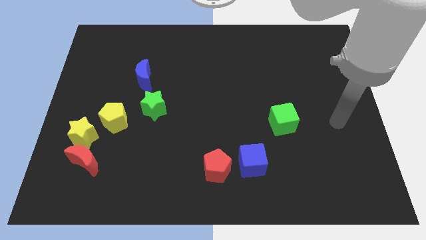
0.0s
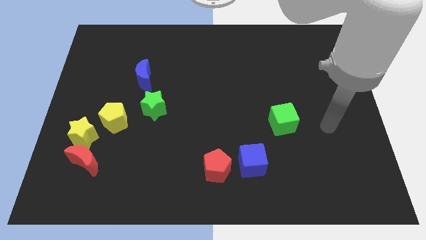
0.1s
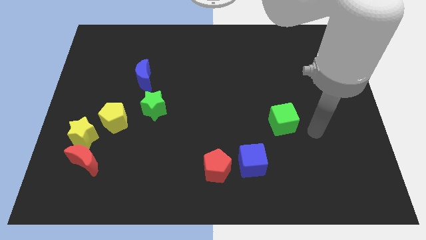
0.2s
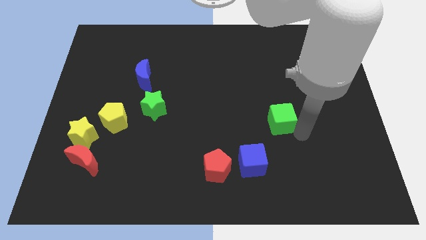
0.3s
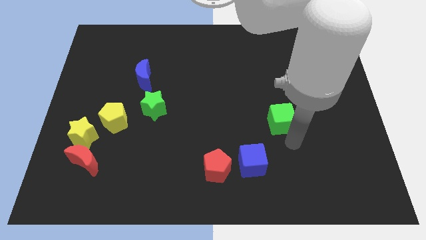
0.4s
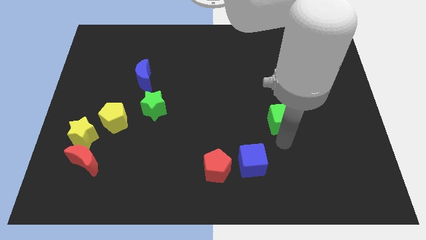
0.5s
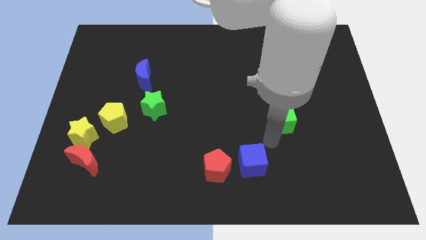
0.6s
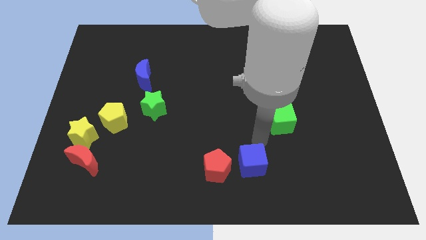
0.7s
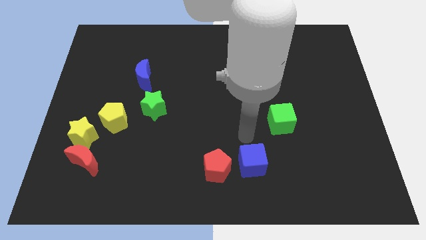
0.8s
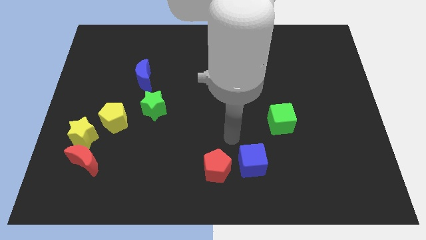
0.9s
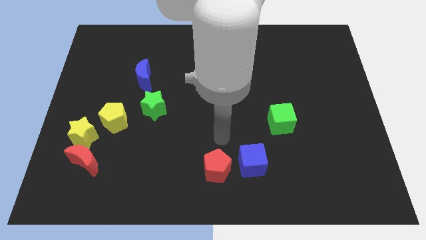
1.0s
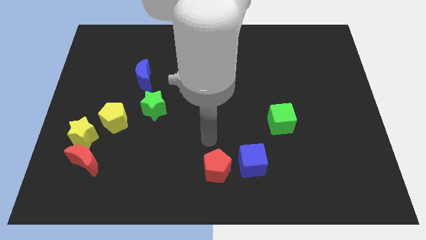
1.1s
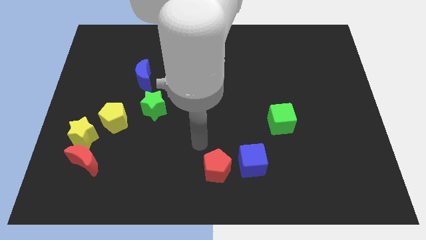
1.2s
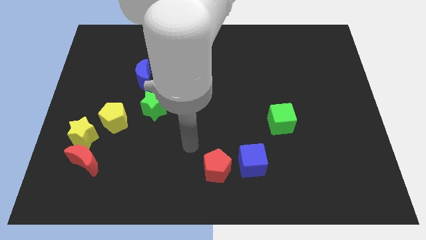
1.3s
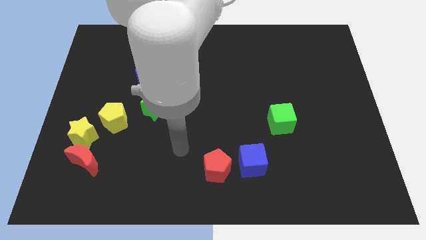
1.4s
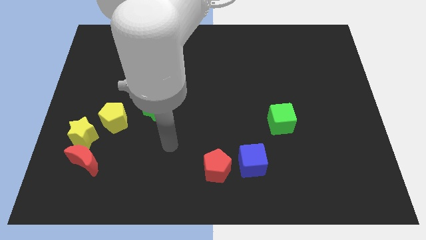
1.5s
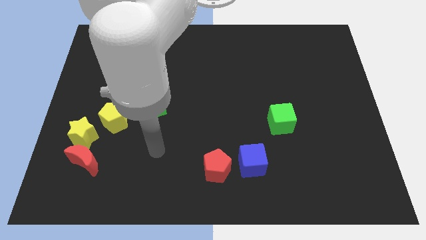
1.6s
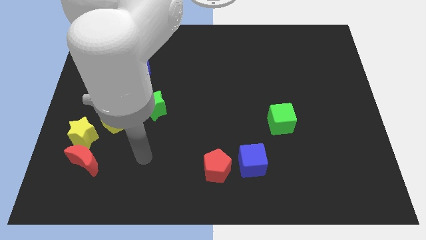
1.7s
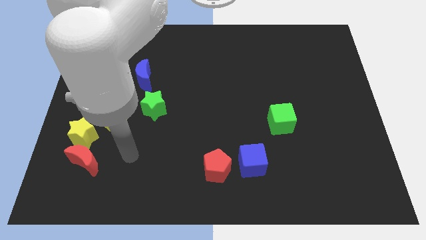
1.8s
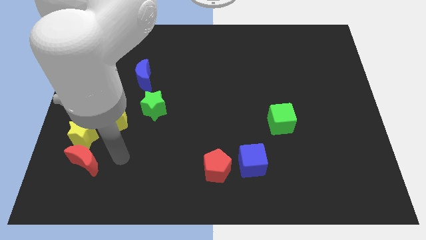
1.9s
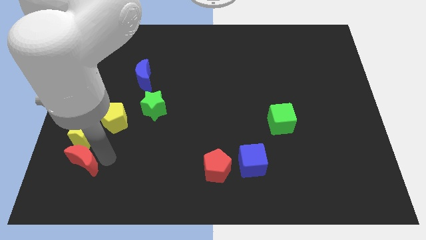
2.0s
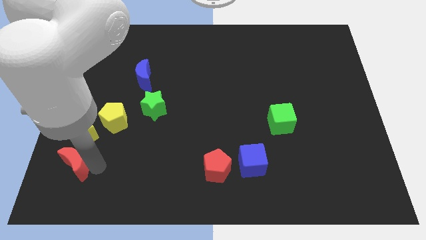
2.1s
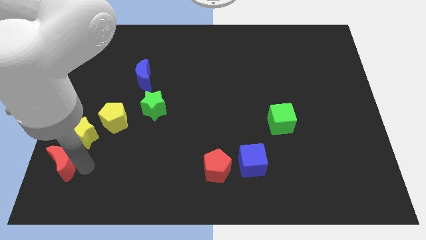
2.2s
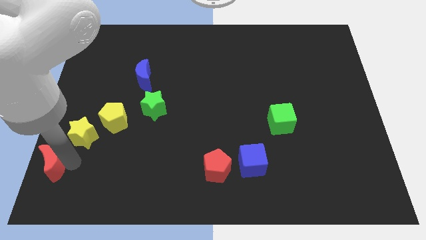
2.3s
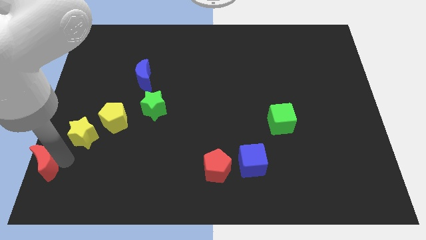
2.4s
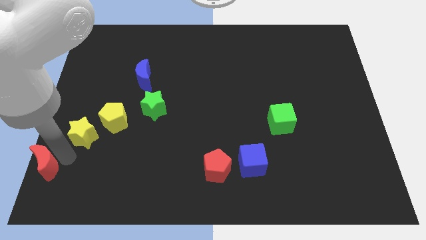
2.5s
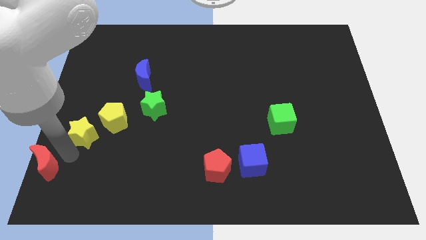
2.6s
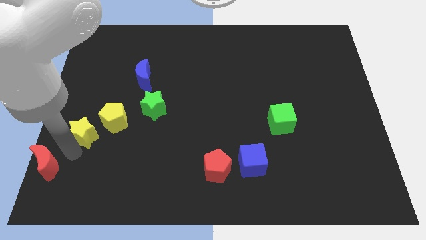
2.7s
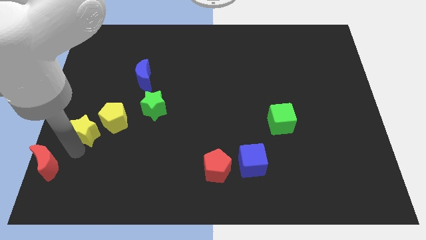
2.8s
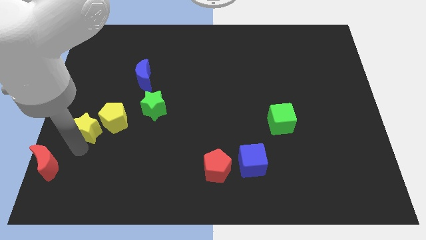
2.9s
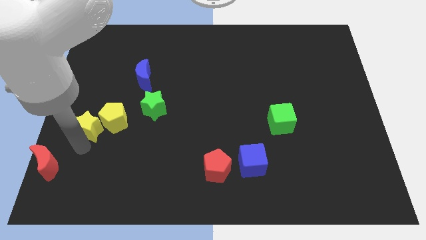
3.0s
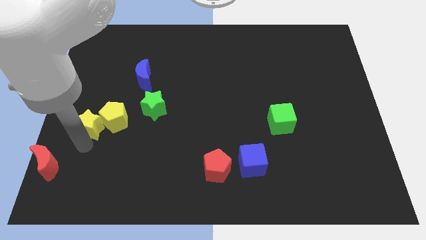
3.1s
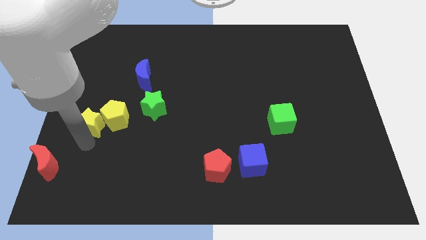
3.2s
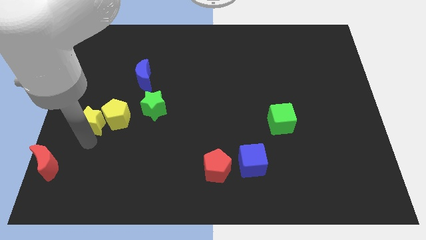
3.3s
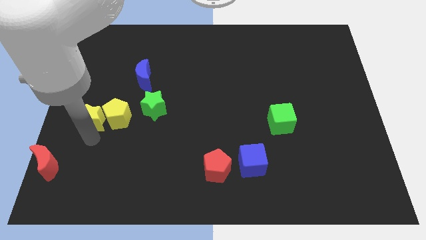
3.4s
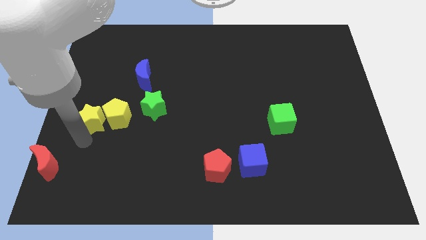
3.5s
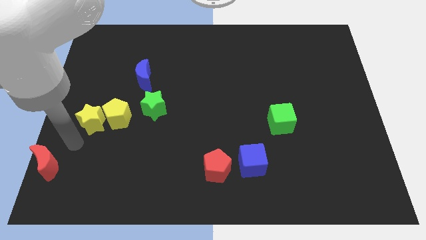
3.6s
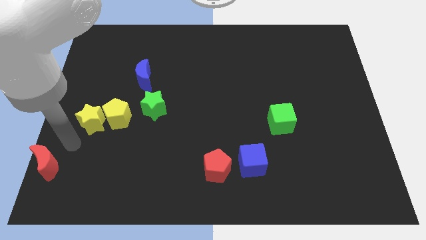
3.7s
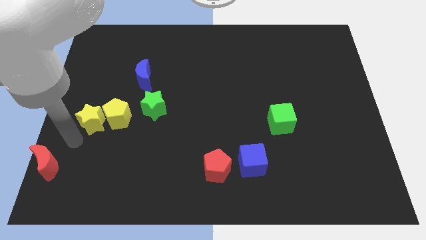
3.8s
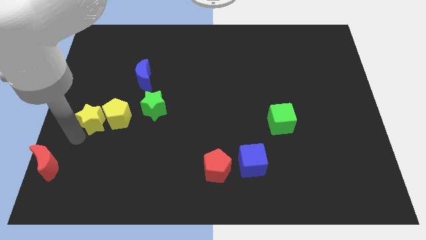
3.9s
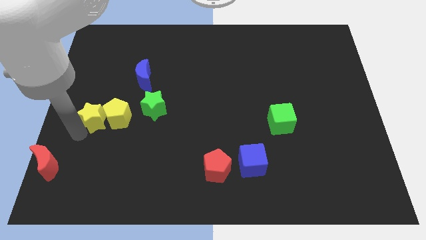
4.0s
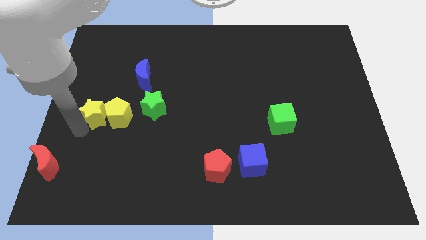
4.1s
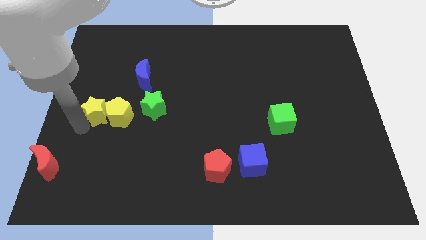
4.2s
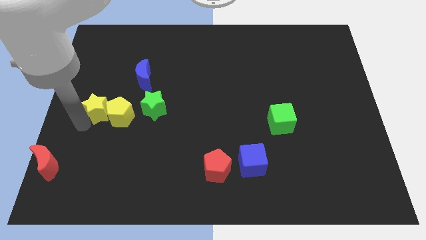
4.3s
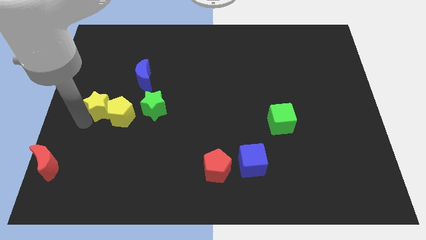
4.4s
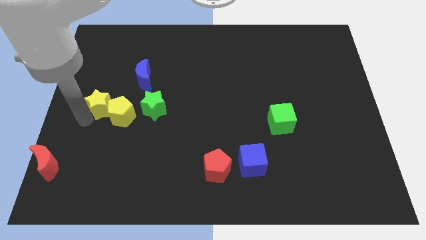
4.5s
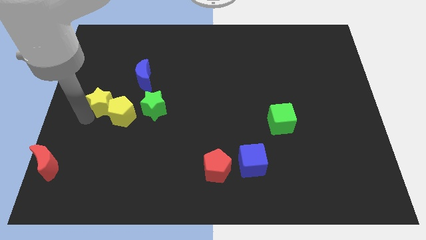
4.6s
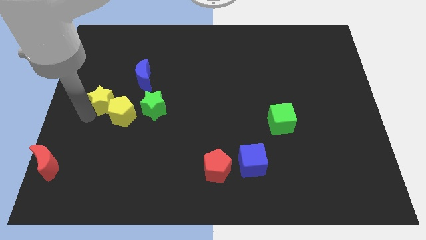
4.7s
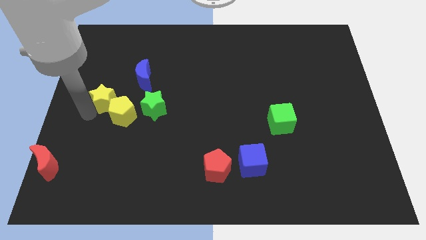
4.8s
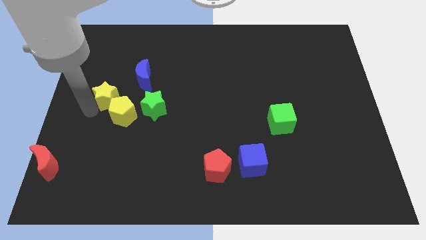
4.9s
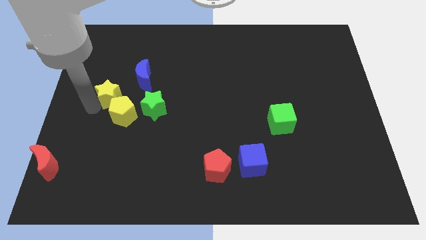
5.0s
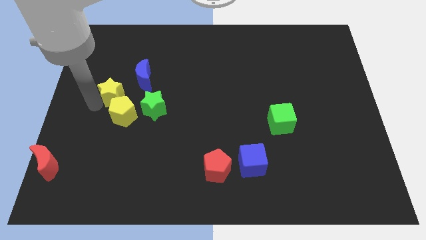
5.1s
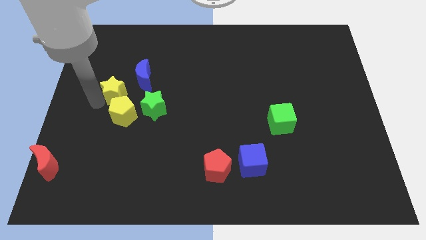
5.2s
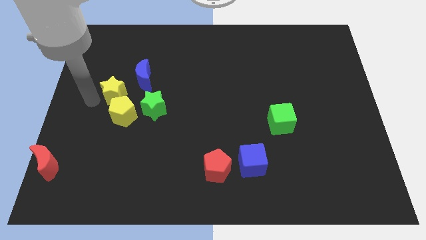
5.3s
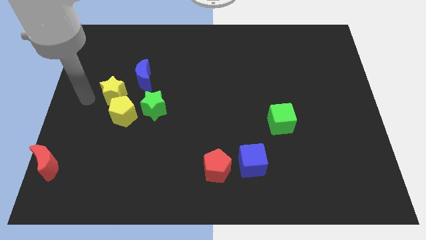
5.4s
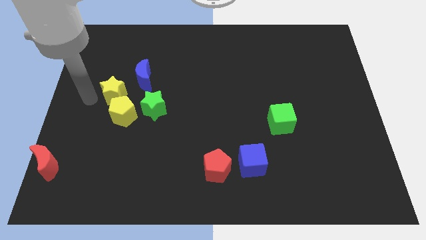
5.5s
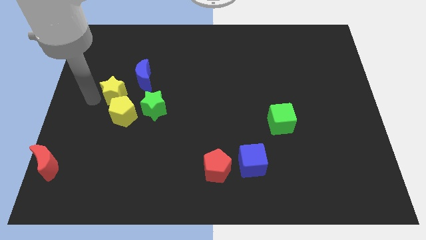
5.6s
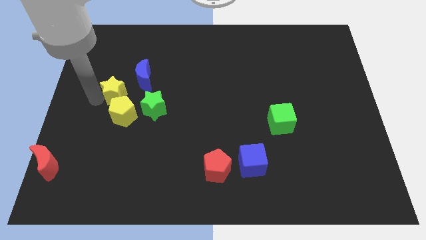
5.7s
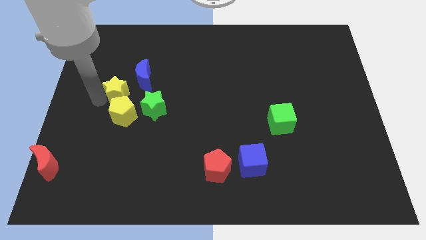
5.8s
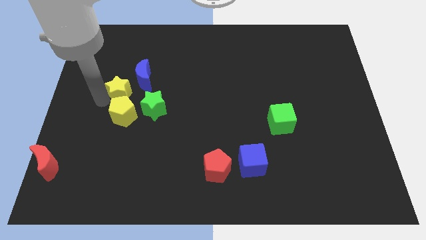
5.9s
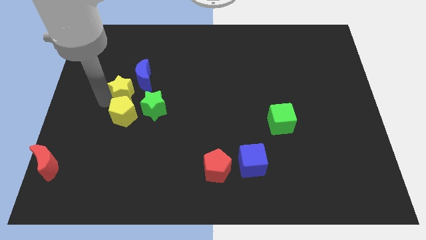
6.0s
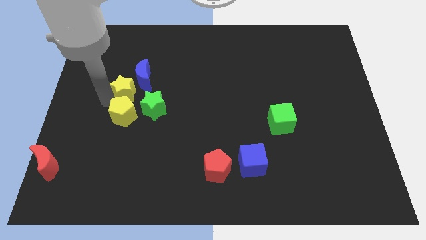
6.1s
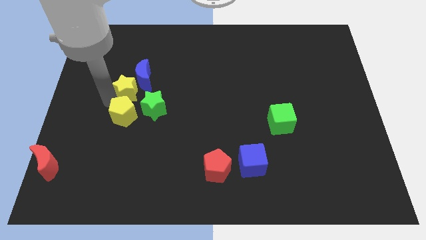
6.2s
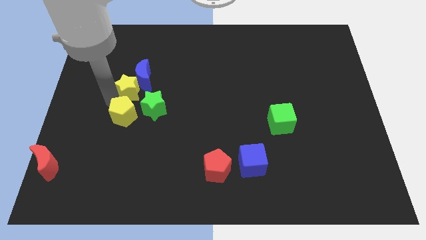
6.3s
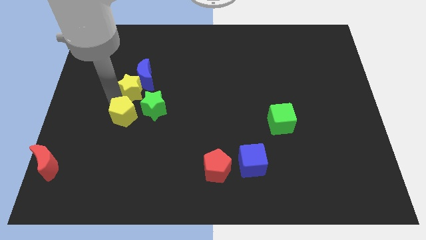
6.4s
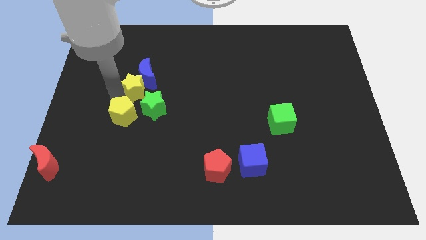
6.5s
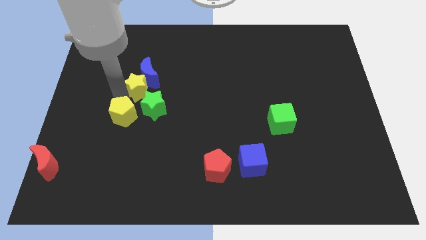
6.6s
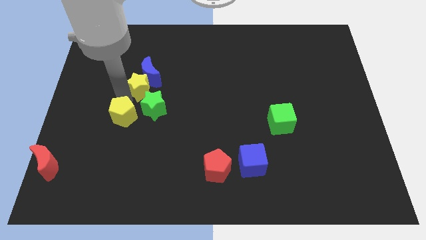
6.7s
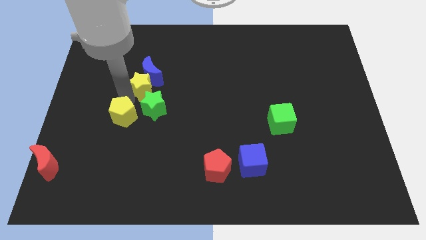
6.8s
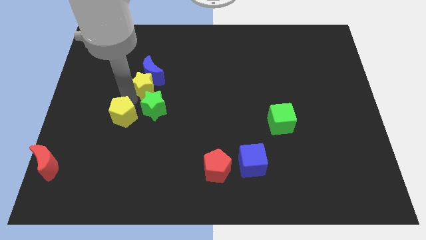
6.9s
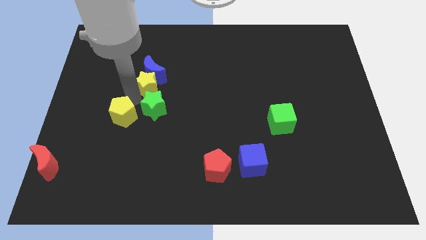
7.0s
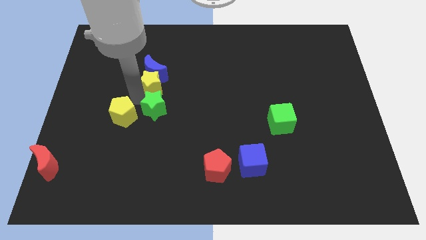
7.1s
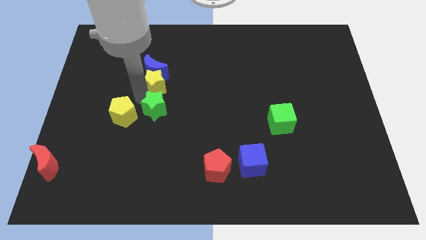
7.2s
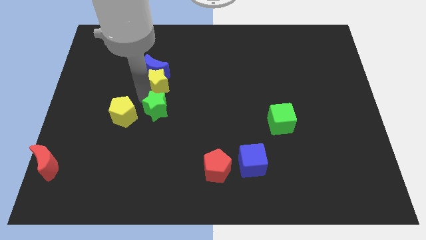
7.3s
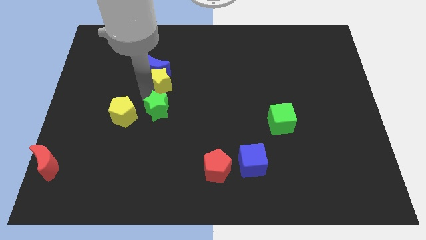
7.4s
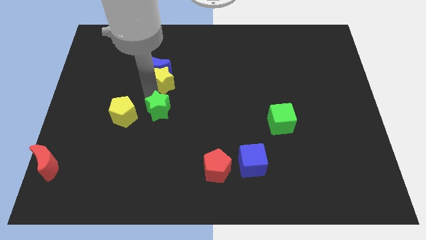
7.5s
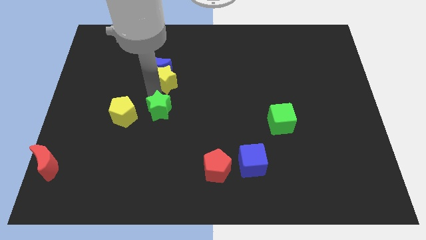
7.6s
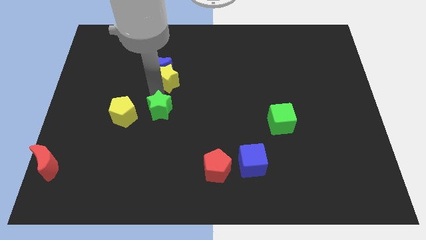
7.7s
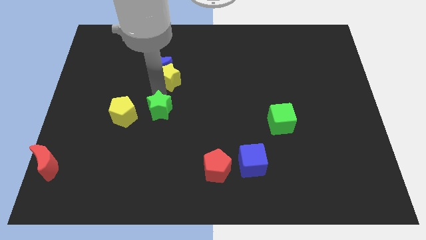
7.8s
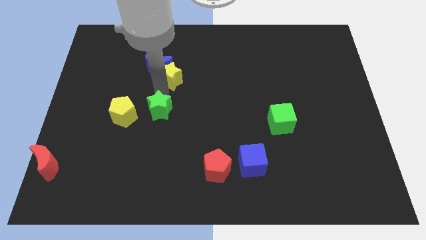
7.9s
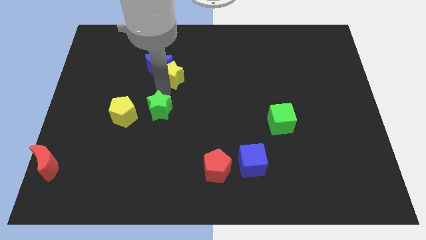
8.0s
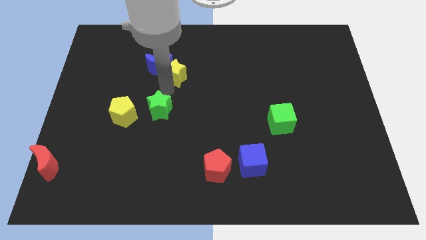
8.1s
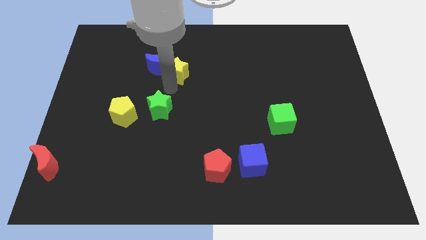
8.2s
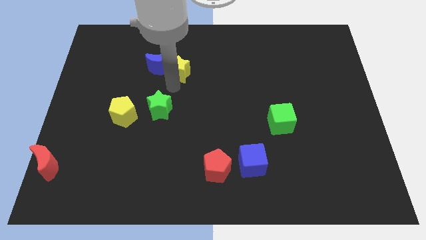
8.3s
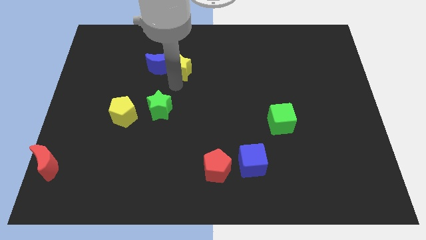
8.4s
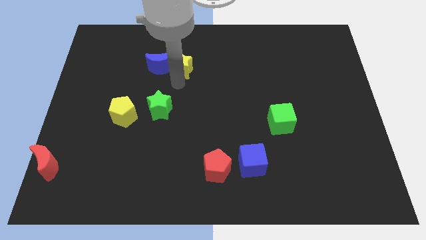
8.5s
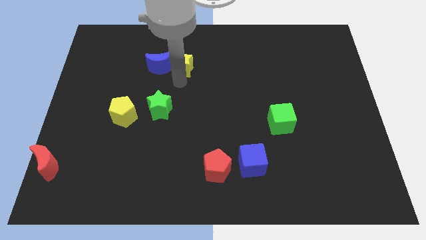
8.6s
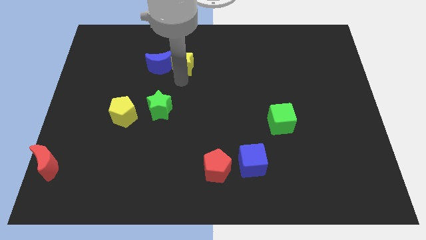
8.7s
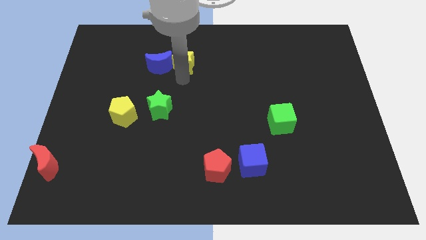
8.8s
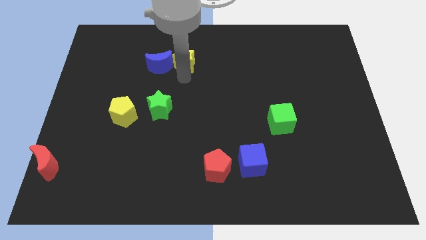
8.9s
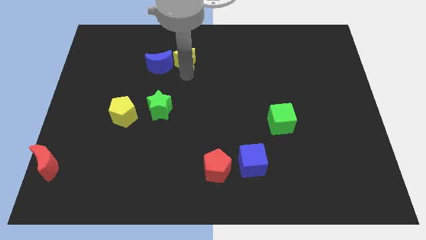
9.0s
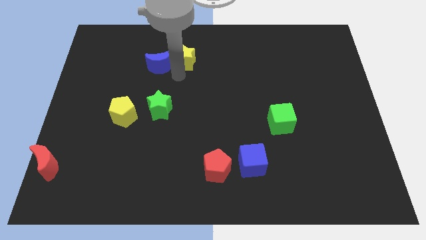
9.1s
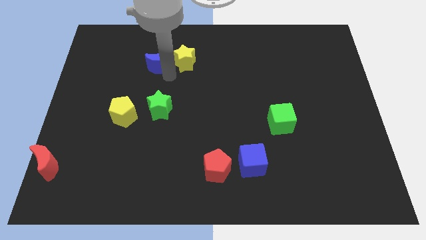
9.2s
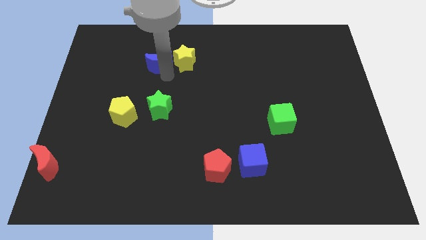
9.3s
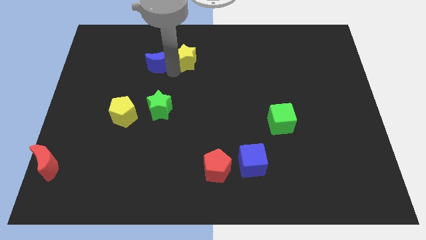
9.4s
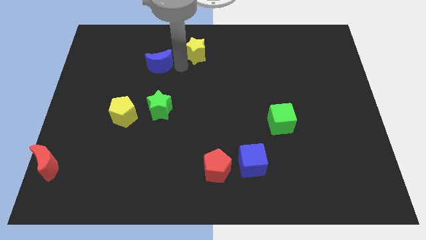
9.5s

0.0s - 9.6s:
push the yellow star to the top
